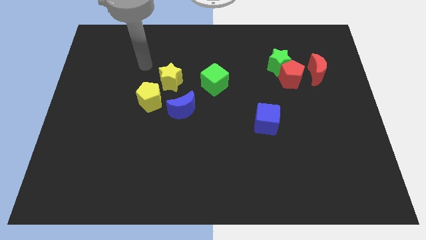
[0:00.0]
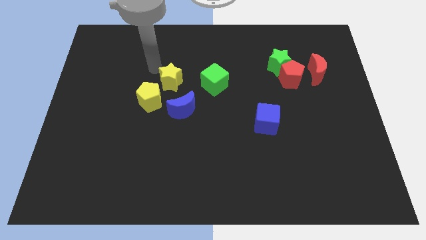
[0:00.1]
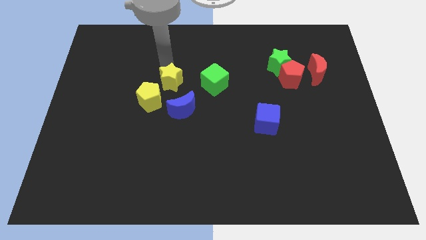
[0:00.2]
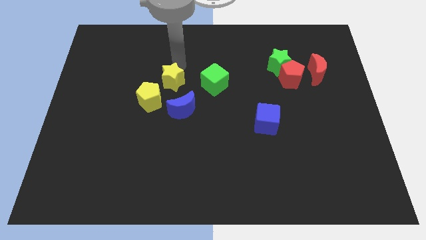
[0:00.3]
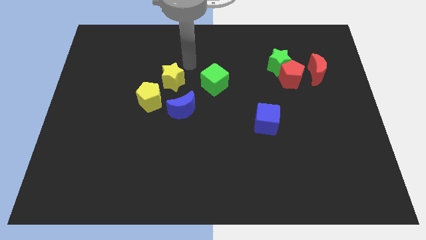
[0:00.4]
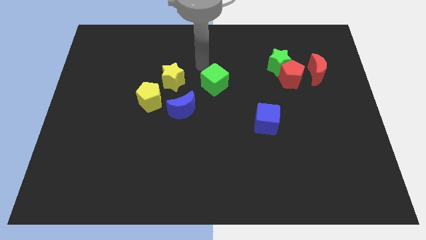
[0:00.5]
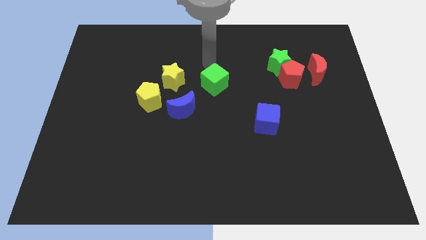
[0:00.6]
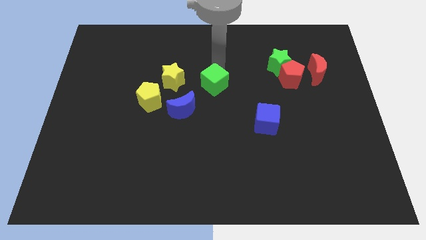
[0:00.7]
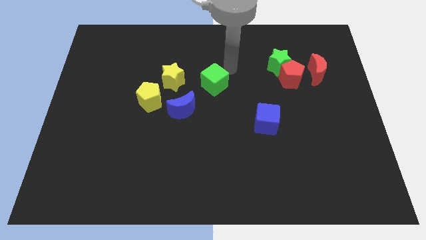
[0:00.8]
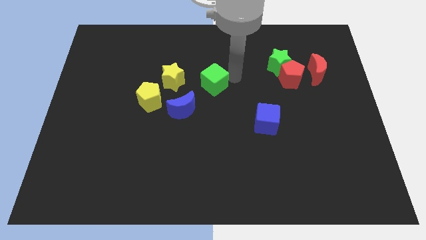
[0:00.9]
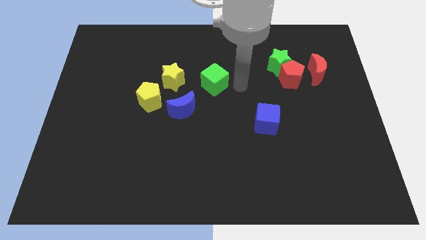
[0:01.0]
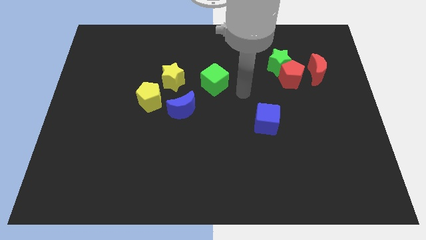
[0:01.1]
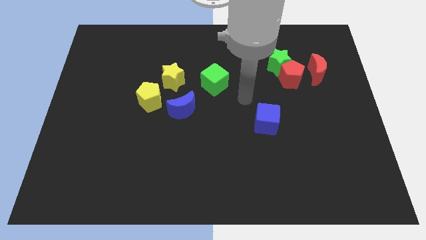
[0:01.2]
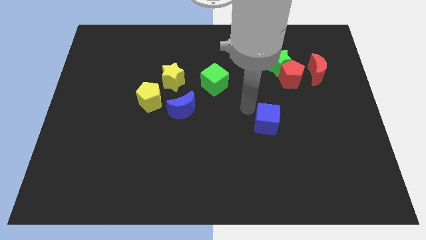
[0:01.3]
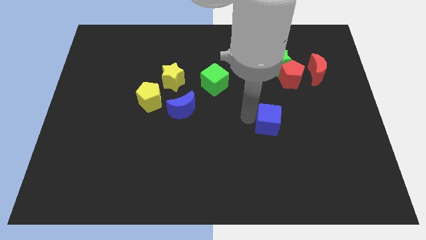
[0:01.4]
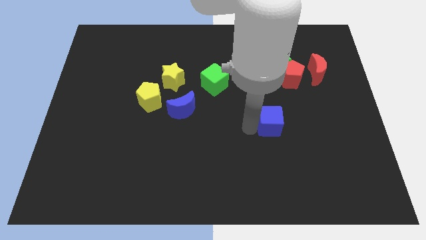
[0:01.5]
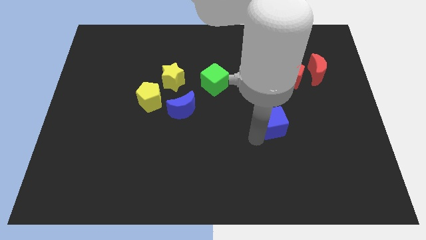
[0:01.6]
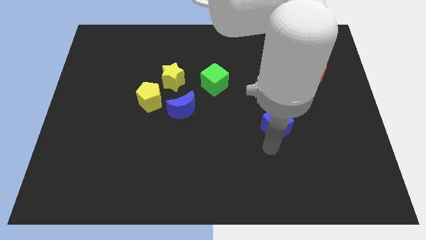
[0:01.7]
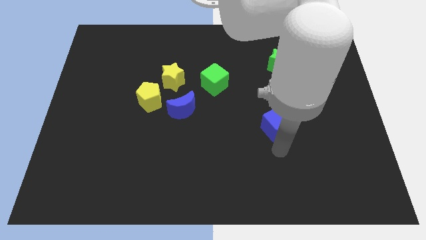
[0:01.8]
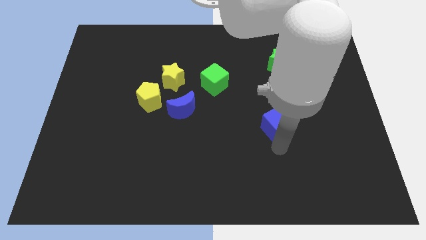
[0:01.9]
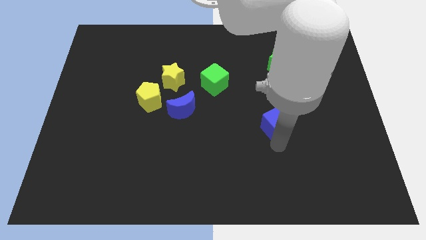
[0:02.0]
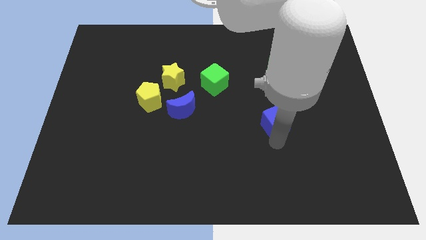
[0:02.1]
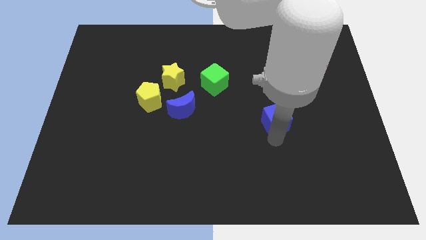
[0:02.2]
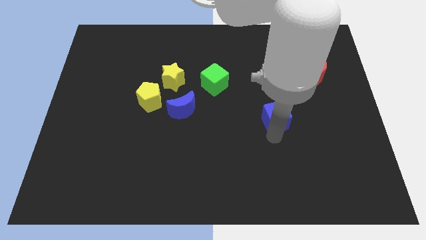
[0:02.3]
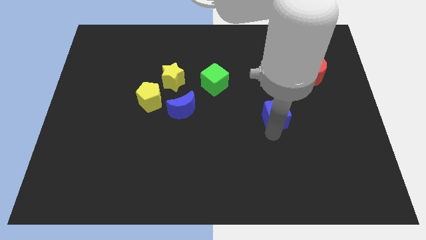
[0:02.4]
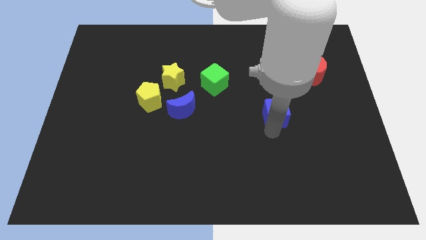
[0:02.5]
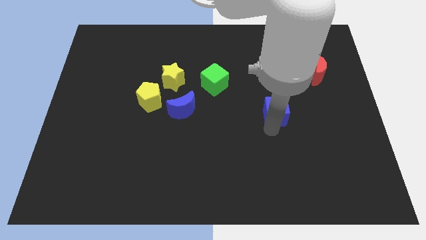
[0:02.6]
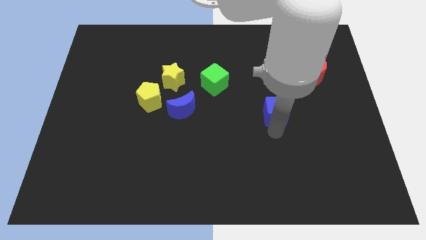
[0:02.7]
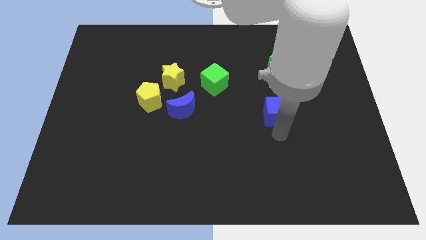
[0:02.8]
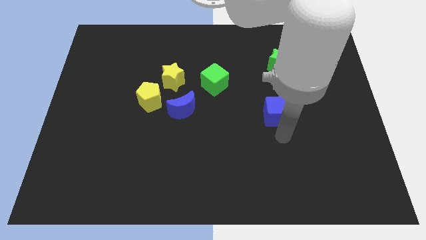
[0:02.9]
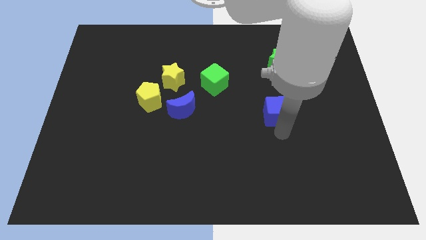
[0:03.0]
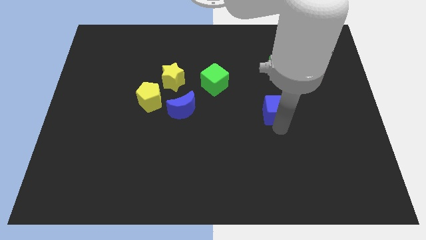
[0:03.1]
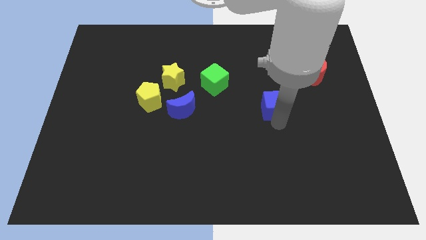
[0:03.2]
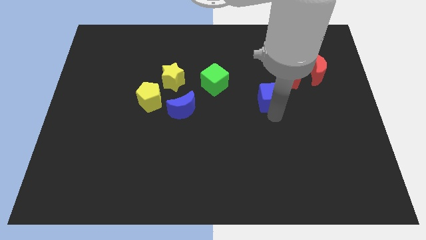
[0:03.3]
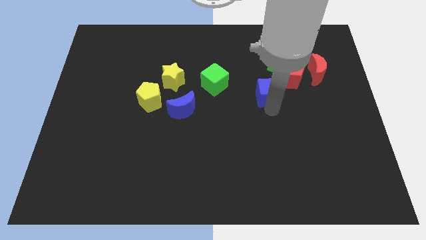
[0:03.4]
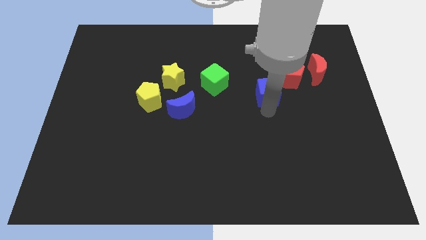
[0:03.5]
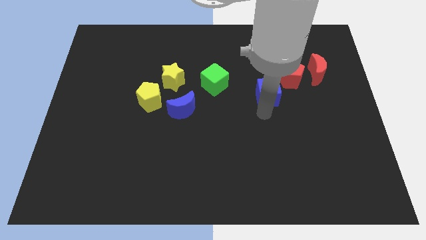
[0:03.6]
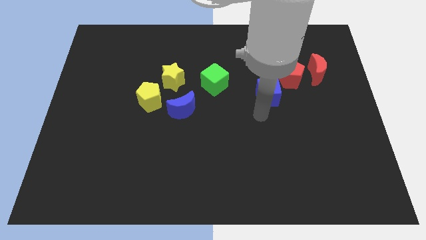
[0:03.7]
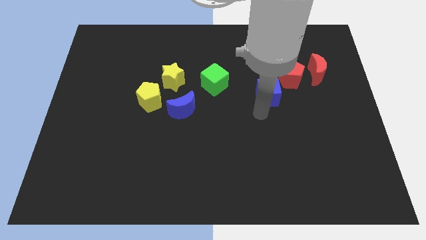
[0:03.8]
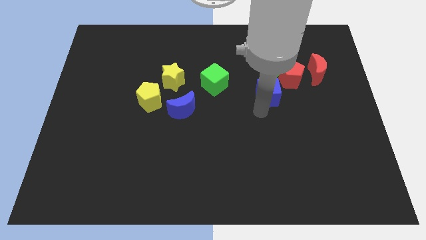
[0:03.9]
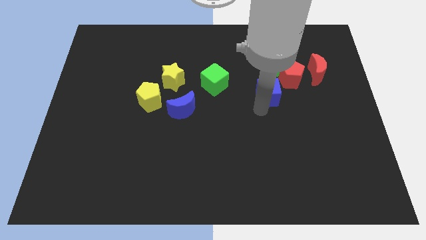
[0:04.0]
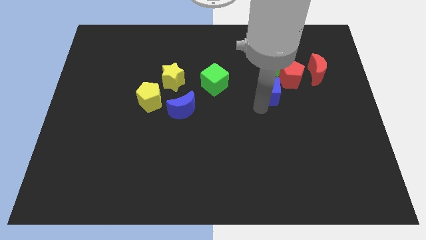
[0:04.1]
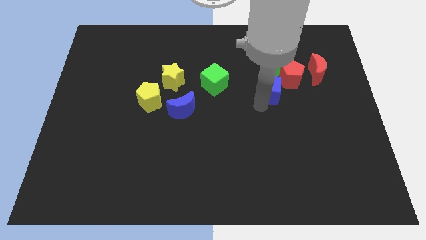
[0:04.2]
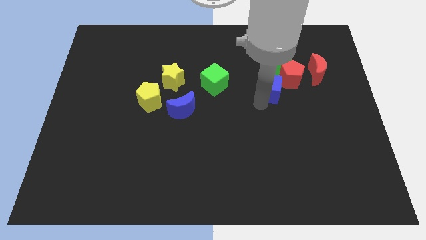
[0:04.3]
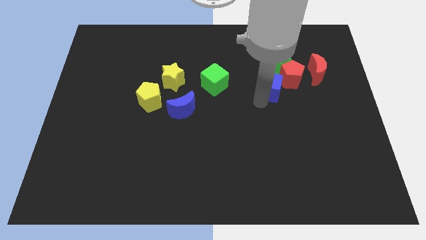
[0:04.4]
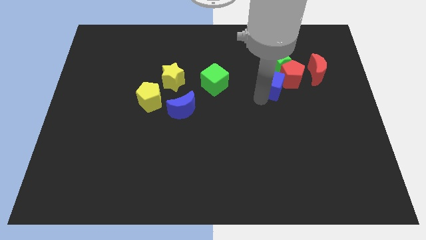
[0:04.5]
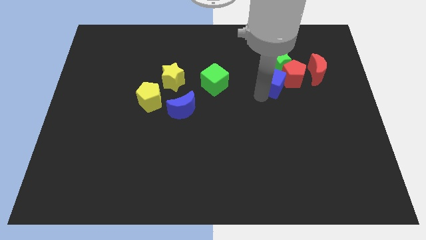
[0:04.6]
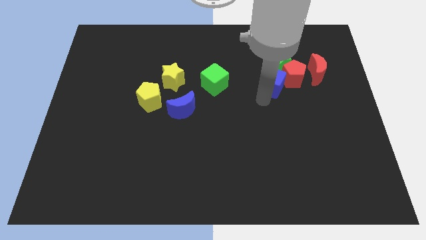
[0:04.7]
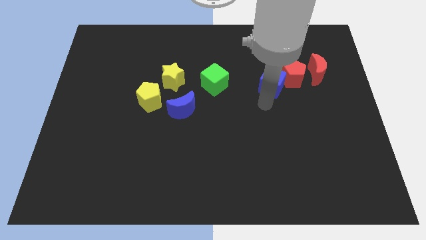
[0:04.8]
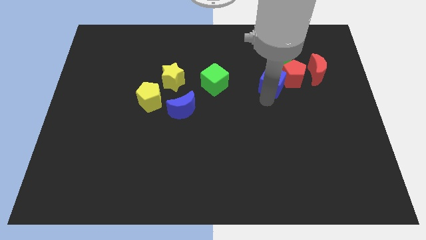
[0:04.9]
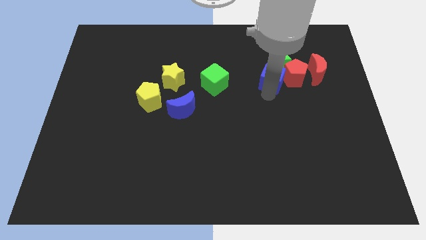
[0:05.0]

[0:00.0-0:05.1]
put the blue cube to the green star

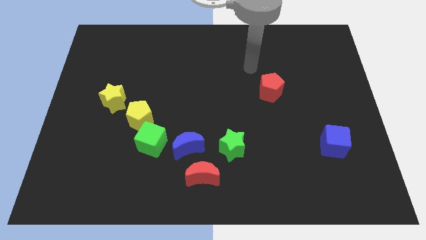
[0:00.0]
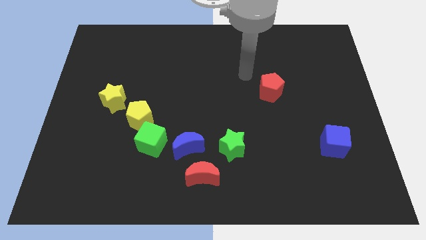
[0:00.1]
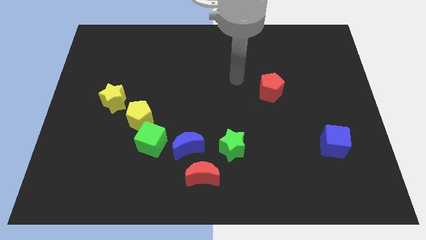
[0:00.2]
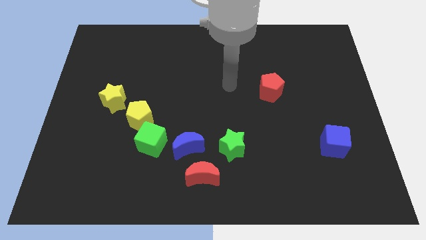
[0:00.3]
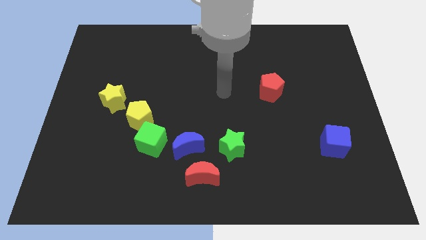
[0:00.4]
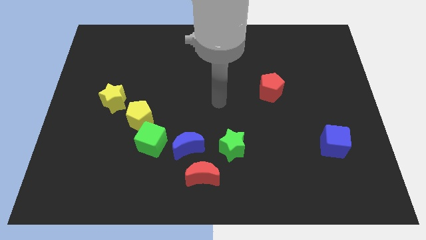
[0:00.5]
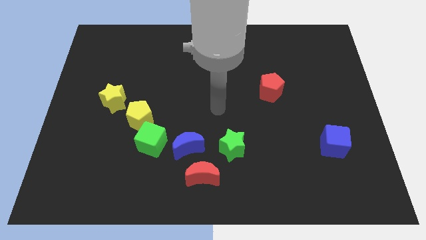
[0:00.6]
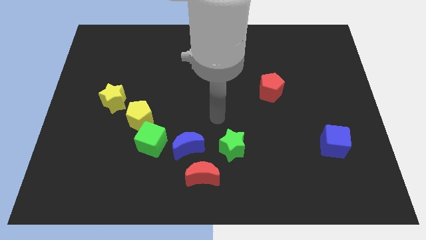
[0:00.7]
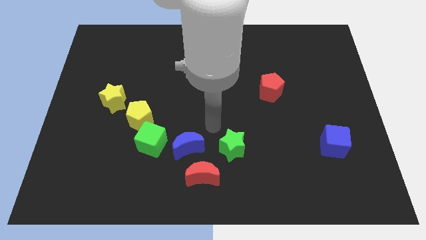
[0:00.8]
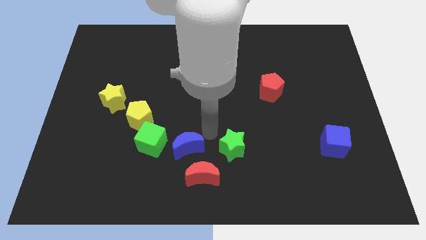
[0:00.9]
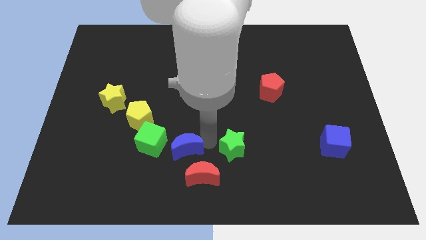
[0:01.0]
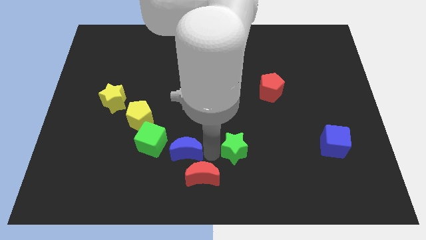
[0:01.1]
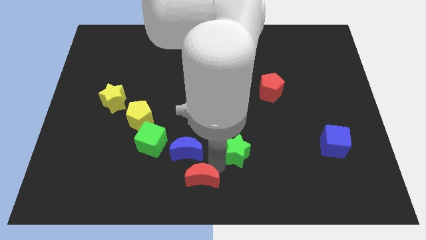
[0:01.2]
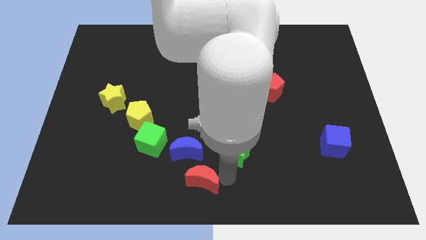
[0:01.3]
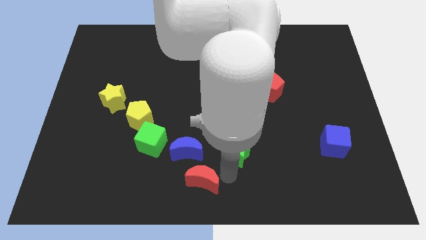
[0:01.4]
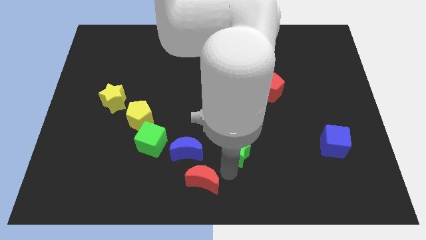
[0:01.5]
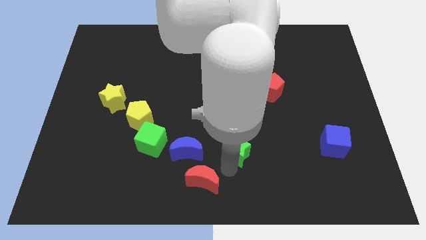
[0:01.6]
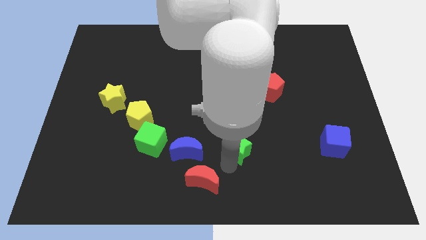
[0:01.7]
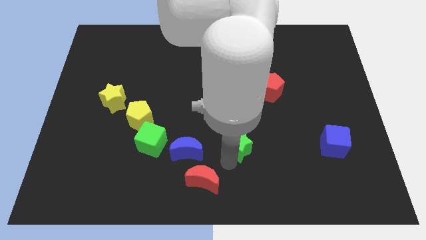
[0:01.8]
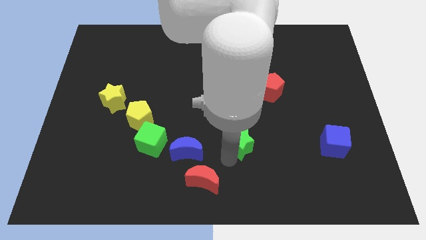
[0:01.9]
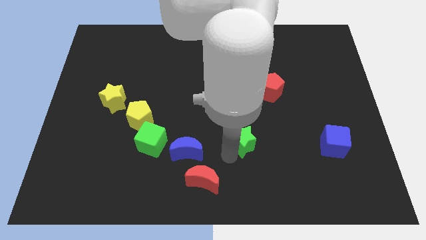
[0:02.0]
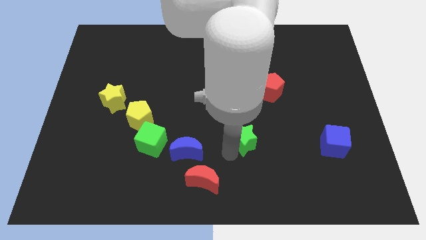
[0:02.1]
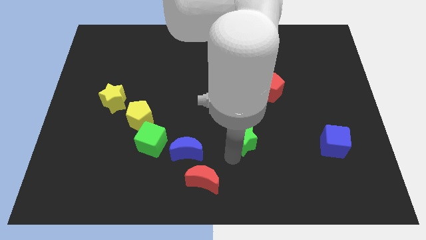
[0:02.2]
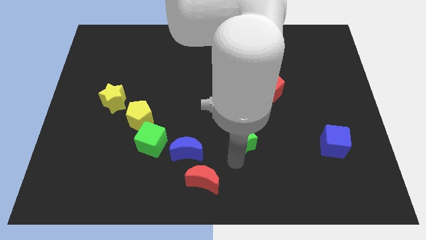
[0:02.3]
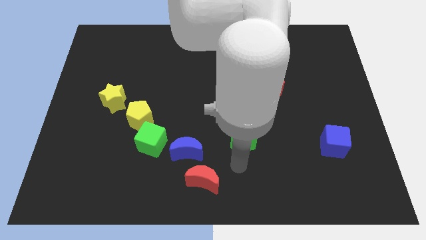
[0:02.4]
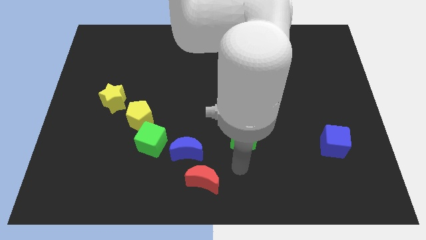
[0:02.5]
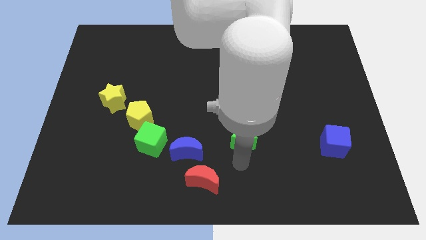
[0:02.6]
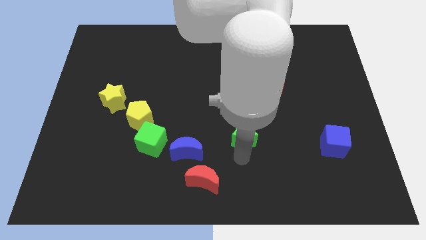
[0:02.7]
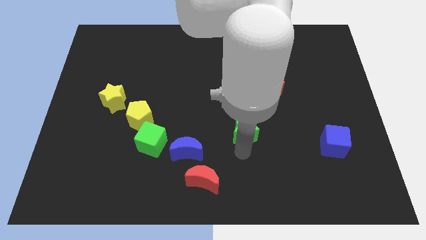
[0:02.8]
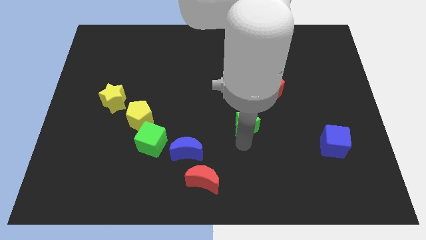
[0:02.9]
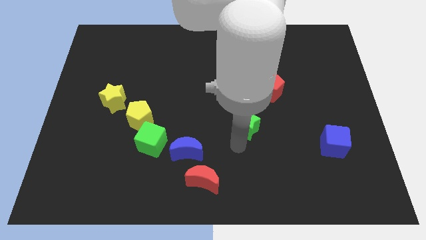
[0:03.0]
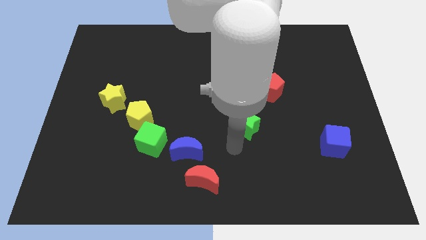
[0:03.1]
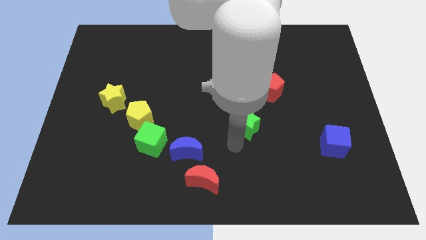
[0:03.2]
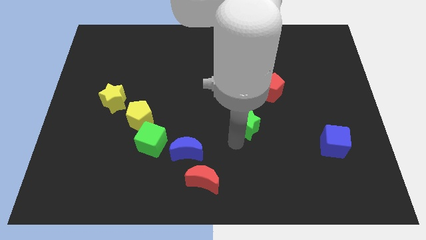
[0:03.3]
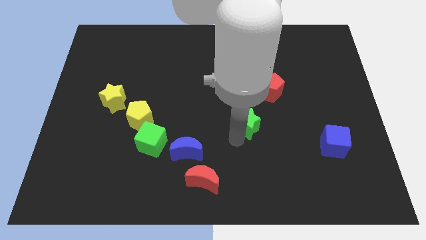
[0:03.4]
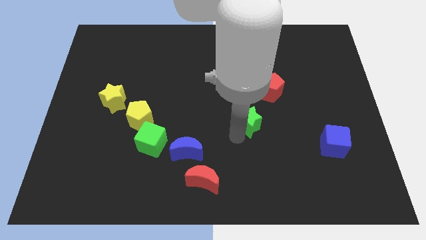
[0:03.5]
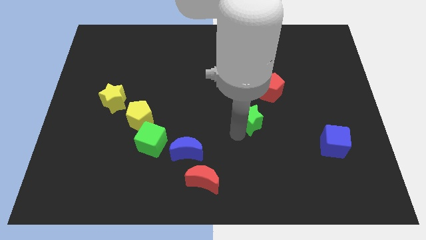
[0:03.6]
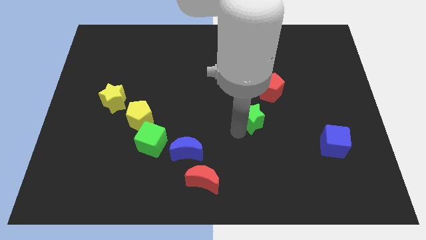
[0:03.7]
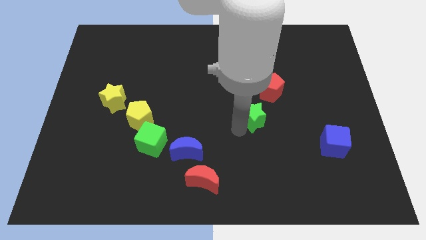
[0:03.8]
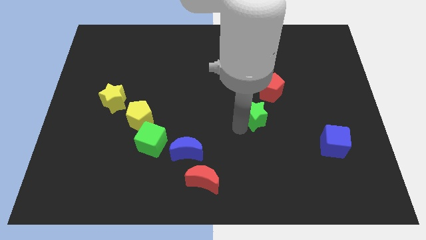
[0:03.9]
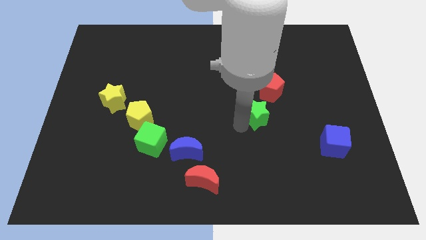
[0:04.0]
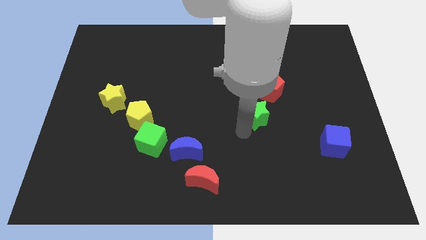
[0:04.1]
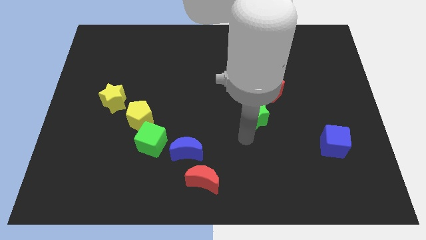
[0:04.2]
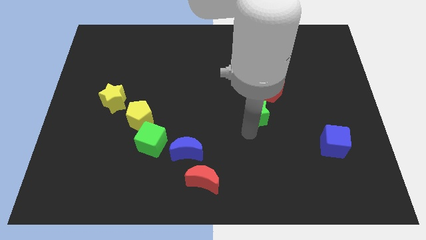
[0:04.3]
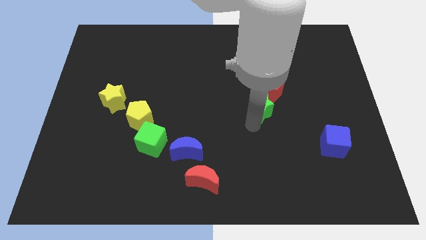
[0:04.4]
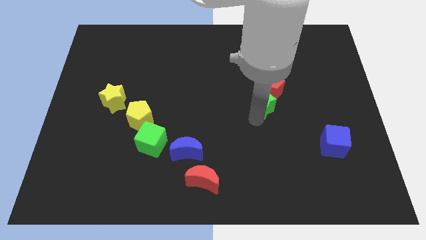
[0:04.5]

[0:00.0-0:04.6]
slide the green star close to the red pentagon
